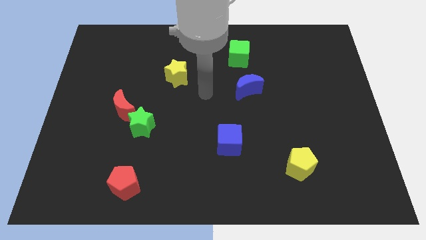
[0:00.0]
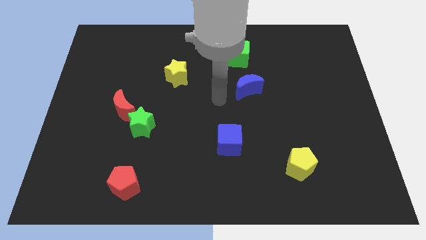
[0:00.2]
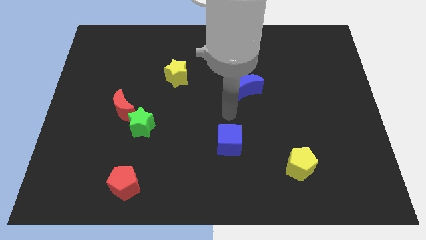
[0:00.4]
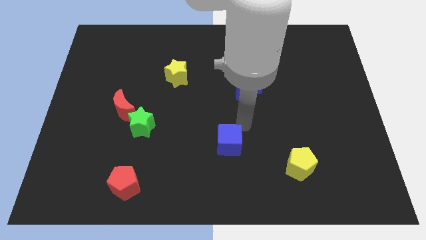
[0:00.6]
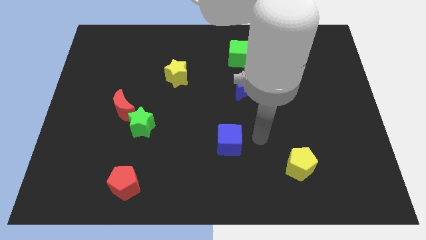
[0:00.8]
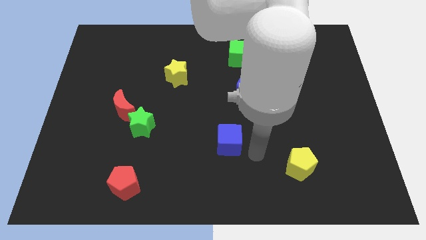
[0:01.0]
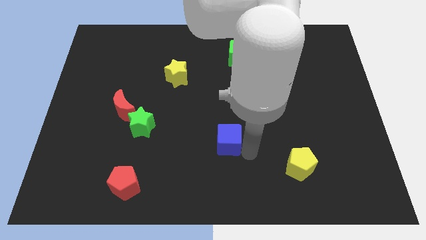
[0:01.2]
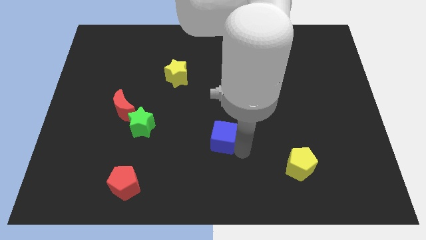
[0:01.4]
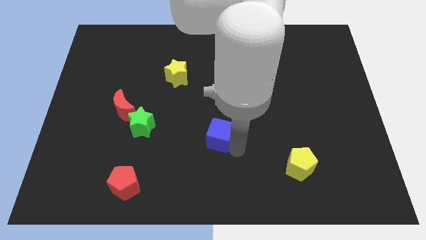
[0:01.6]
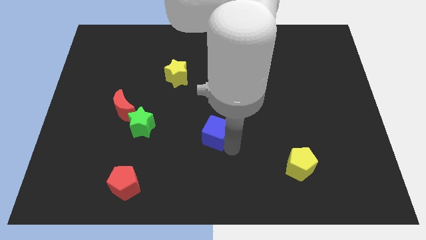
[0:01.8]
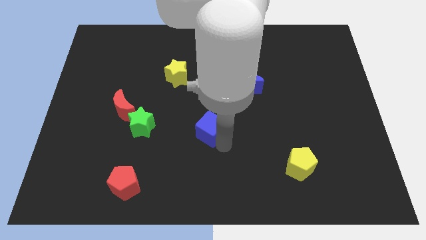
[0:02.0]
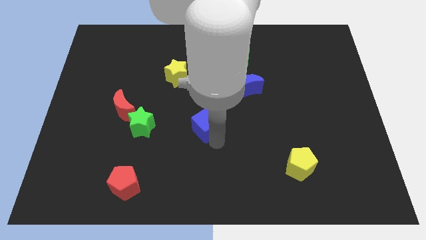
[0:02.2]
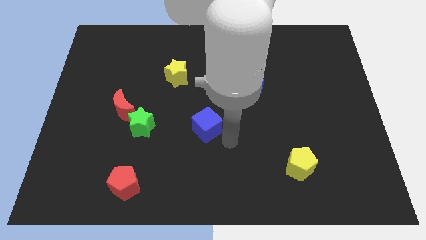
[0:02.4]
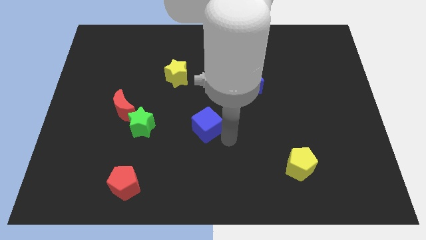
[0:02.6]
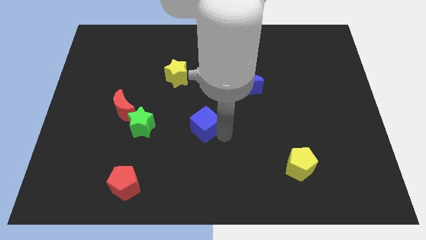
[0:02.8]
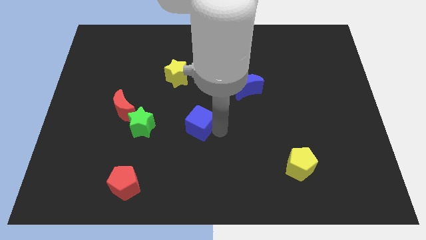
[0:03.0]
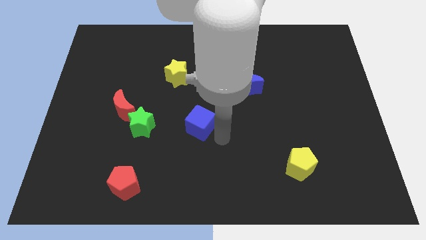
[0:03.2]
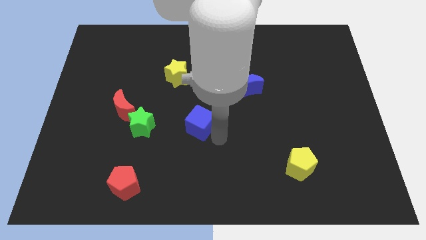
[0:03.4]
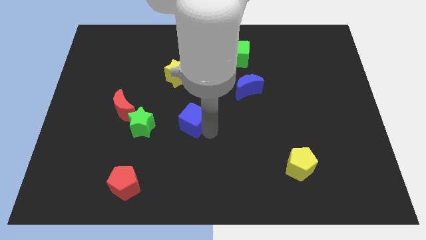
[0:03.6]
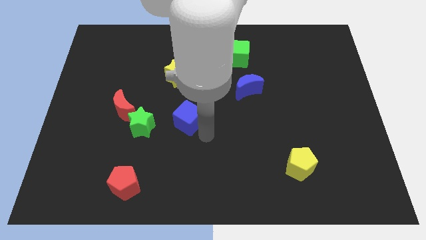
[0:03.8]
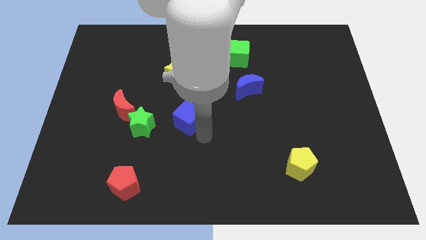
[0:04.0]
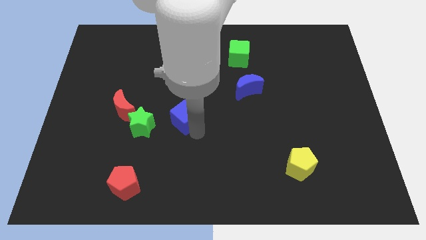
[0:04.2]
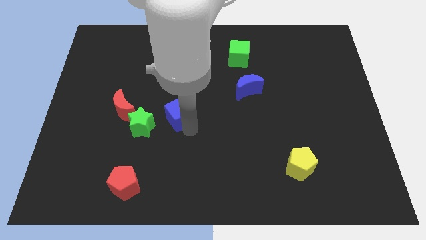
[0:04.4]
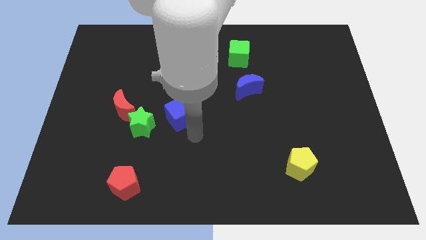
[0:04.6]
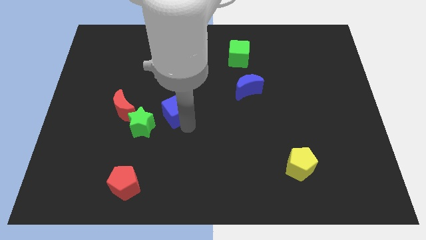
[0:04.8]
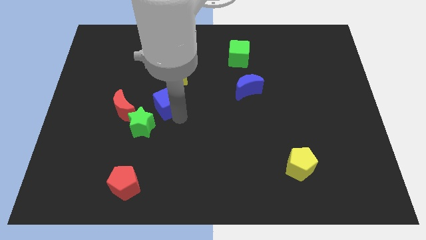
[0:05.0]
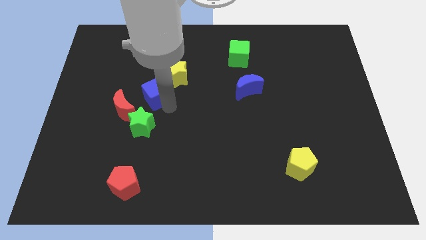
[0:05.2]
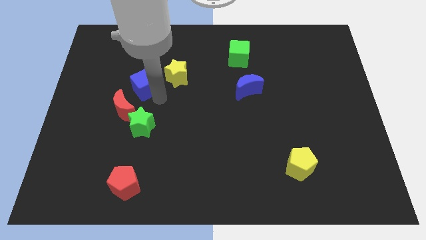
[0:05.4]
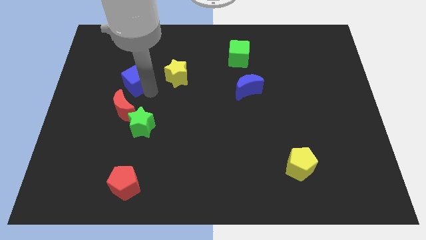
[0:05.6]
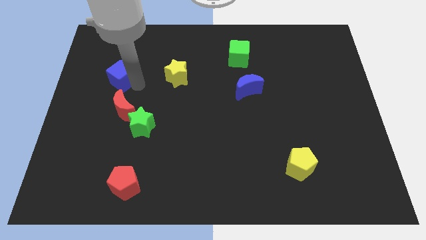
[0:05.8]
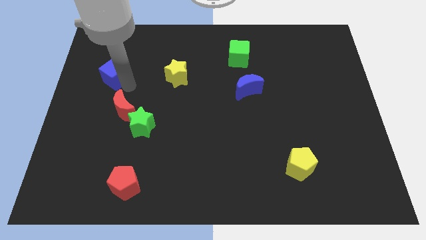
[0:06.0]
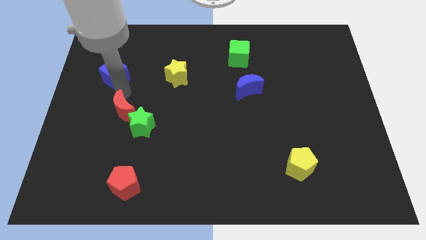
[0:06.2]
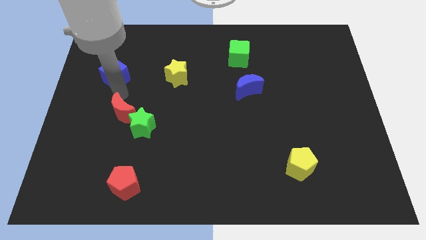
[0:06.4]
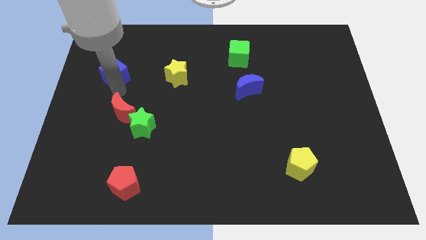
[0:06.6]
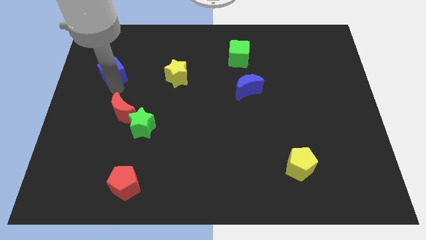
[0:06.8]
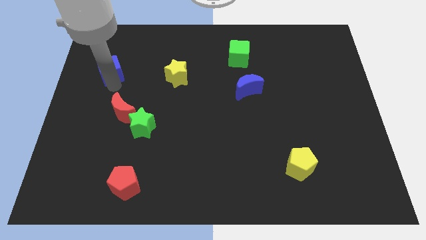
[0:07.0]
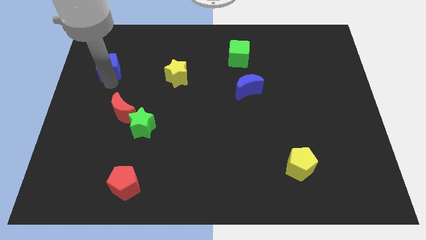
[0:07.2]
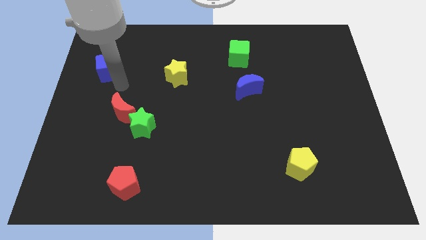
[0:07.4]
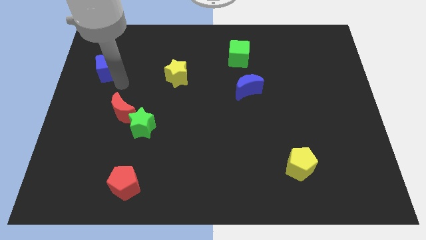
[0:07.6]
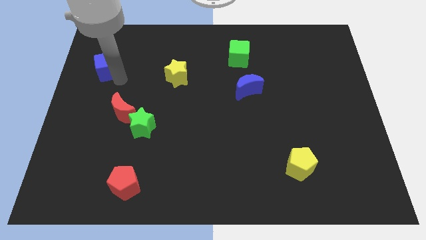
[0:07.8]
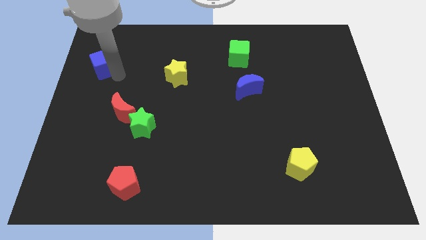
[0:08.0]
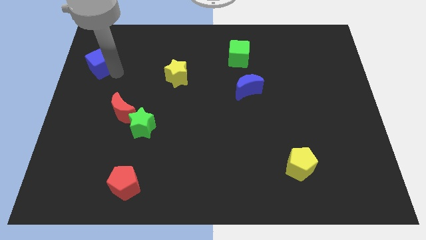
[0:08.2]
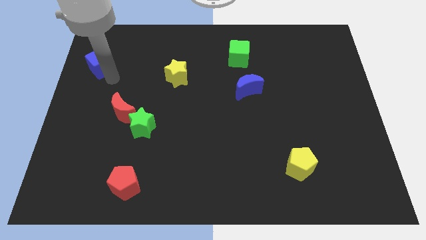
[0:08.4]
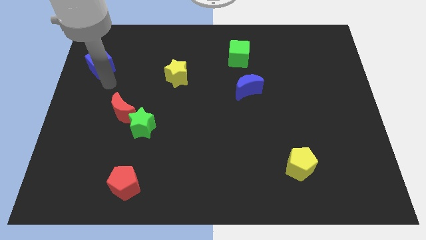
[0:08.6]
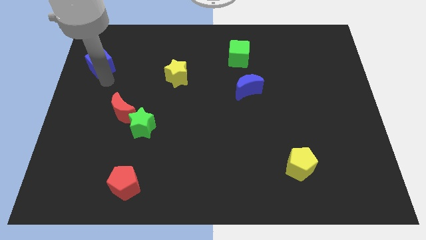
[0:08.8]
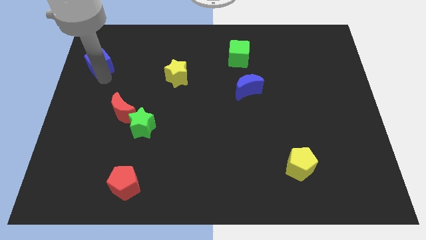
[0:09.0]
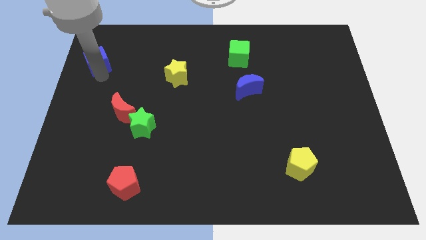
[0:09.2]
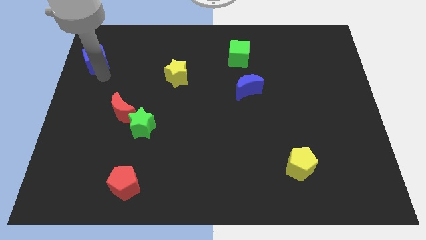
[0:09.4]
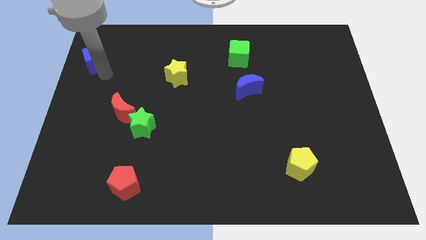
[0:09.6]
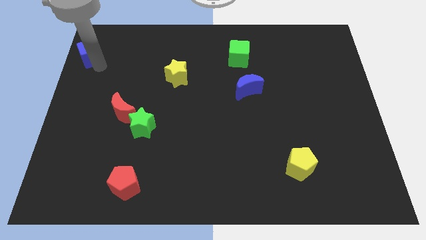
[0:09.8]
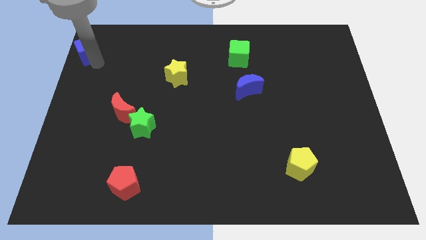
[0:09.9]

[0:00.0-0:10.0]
put the blue cube to the top left of the board

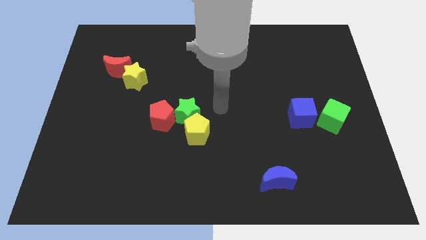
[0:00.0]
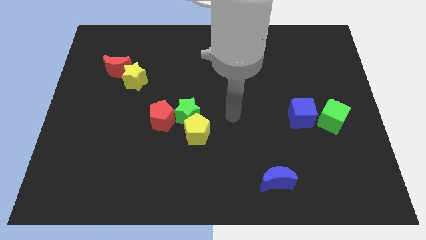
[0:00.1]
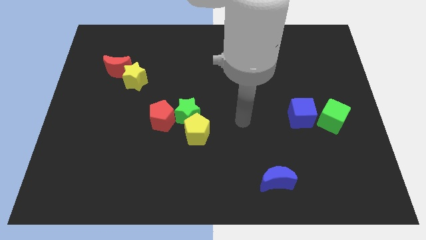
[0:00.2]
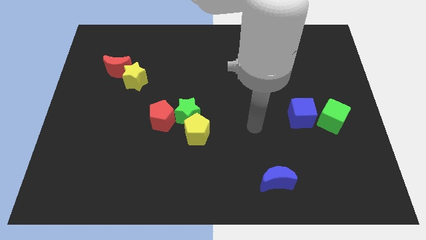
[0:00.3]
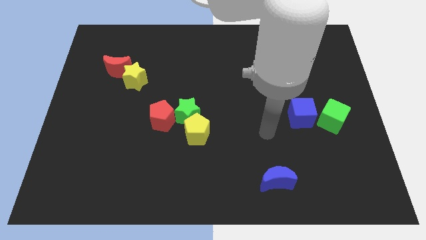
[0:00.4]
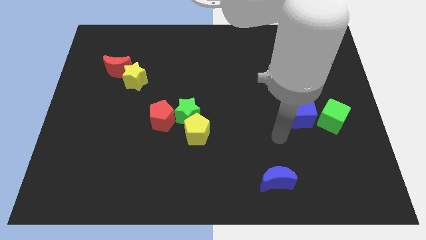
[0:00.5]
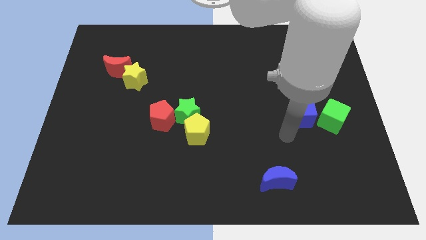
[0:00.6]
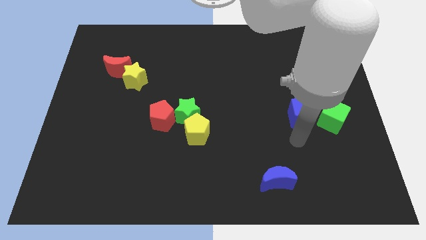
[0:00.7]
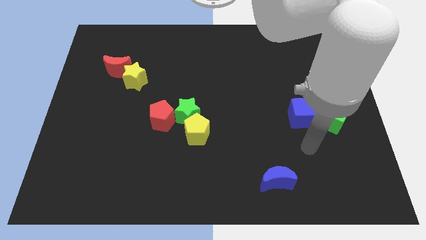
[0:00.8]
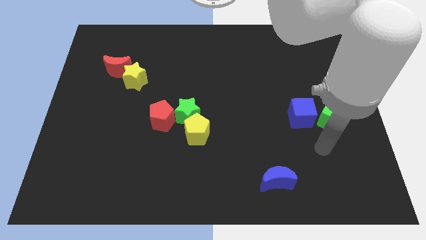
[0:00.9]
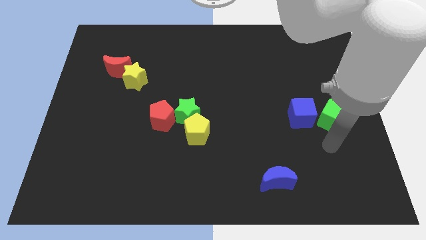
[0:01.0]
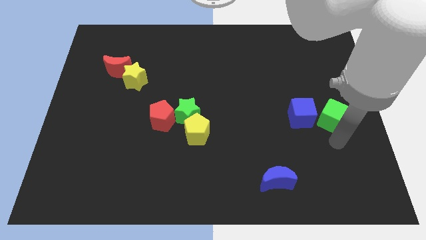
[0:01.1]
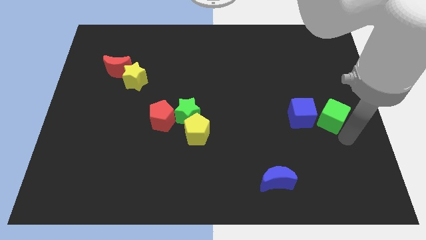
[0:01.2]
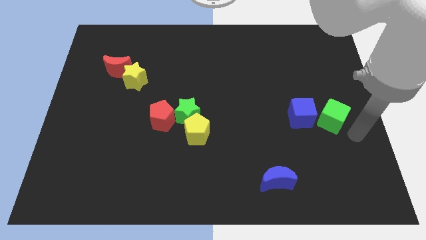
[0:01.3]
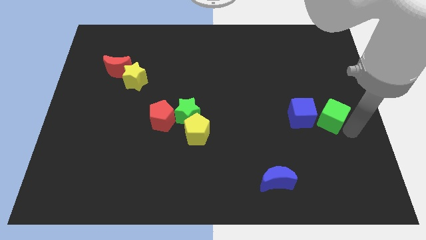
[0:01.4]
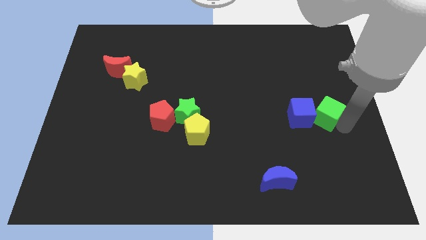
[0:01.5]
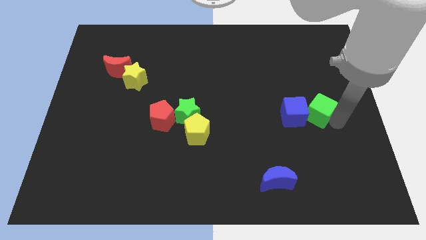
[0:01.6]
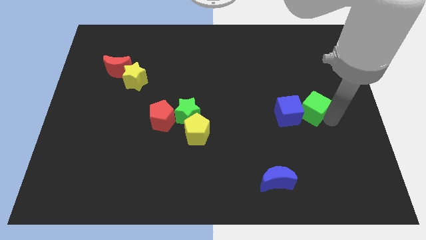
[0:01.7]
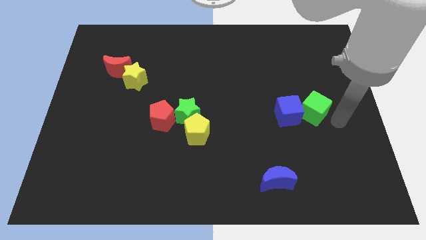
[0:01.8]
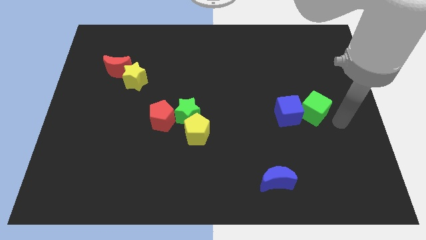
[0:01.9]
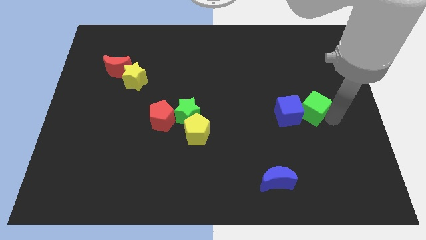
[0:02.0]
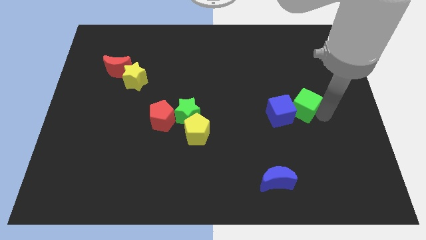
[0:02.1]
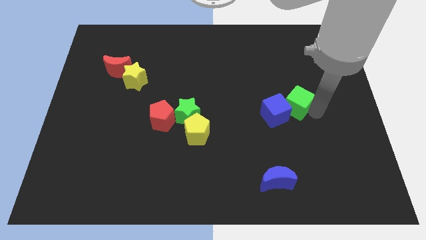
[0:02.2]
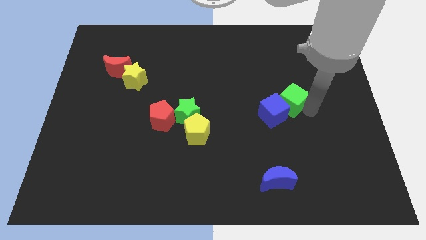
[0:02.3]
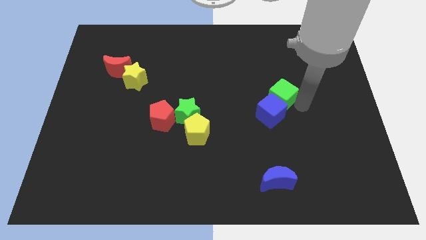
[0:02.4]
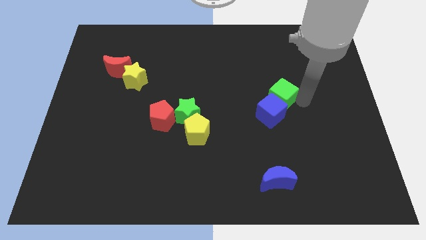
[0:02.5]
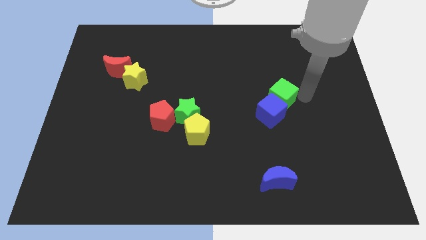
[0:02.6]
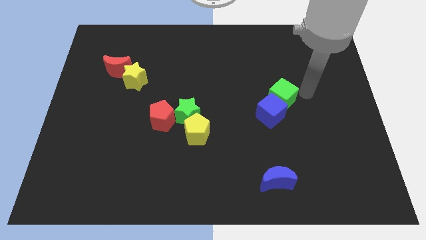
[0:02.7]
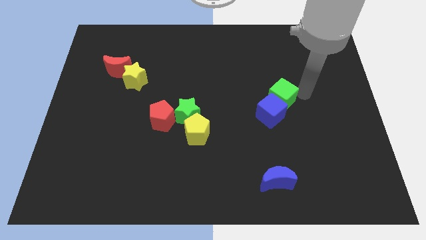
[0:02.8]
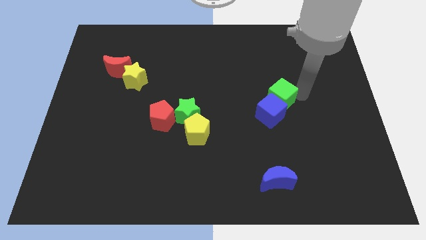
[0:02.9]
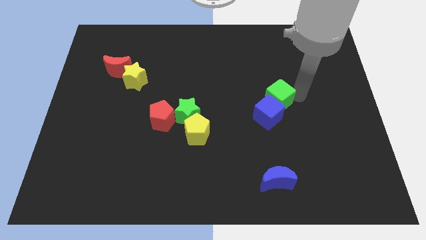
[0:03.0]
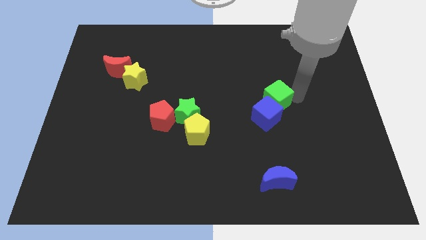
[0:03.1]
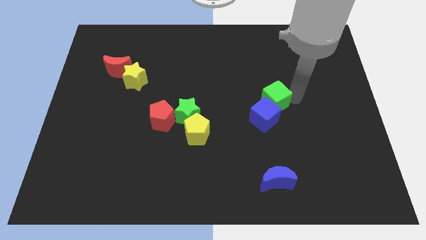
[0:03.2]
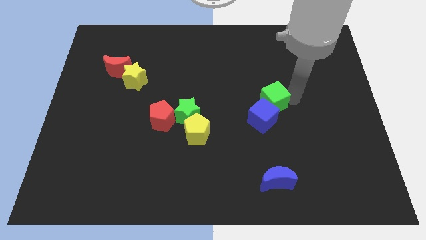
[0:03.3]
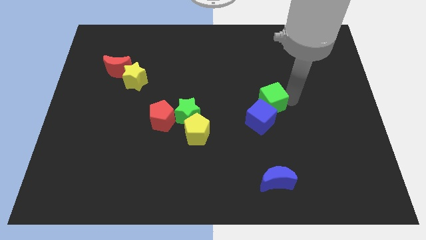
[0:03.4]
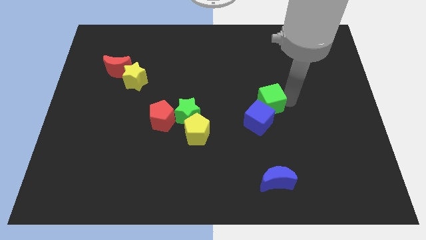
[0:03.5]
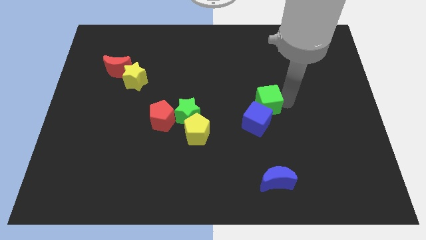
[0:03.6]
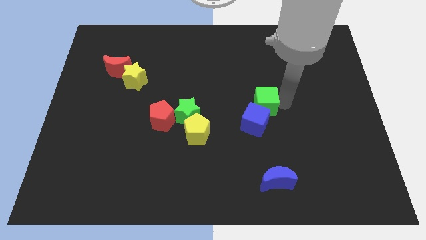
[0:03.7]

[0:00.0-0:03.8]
put the green cube to the middle
